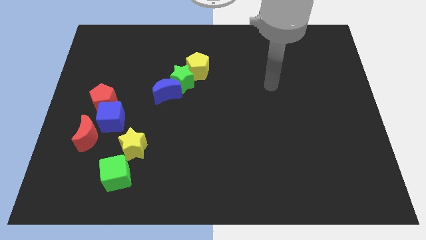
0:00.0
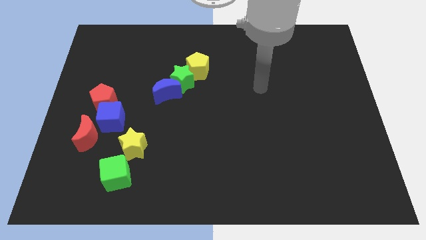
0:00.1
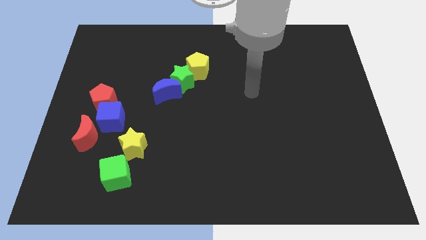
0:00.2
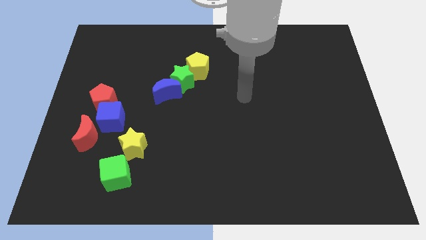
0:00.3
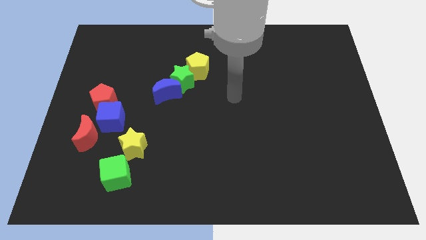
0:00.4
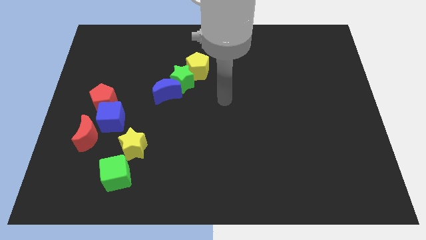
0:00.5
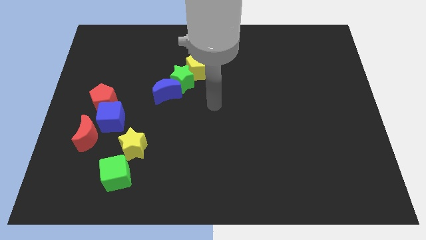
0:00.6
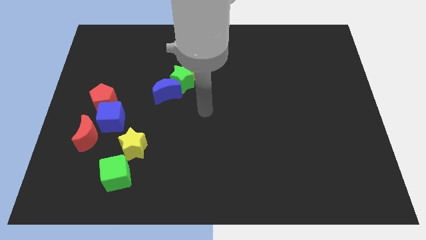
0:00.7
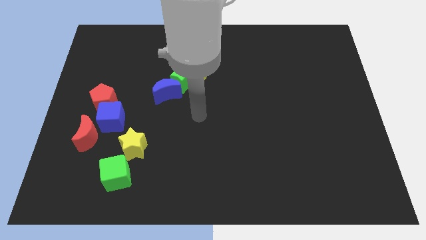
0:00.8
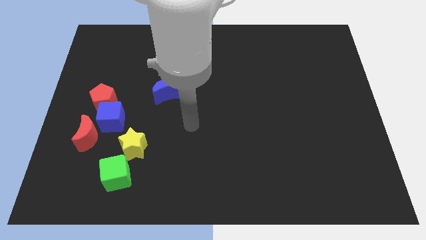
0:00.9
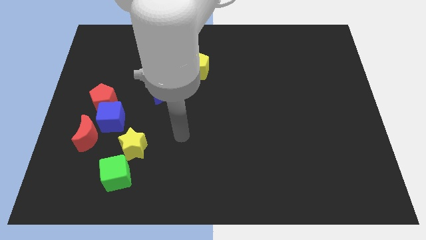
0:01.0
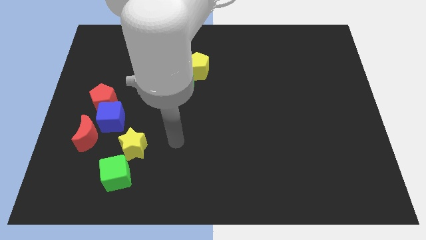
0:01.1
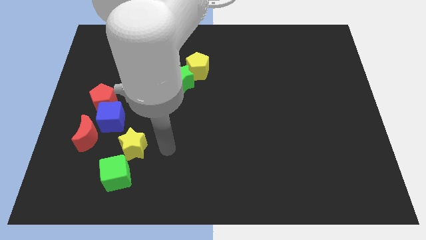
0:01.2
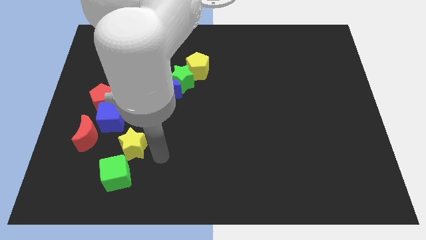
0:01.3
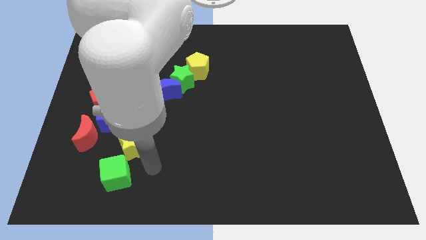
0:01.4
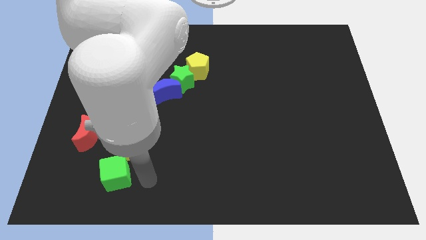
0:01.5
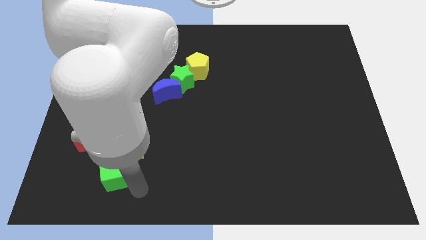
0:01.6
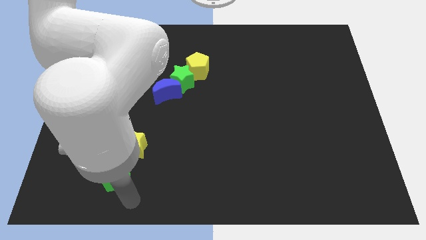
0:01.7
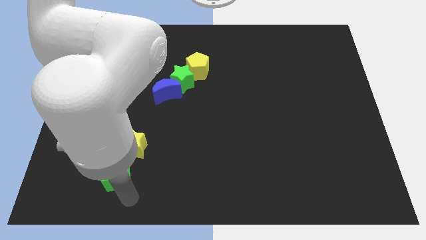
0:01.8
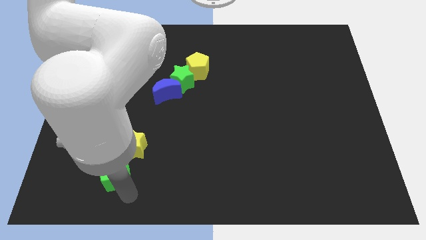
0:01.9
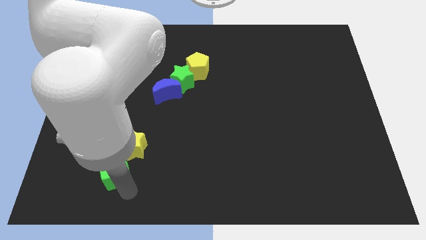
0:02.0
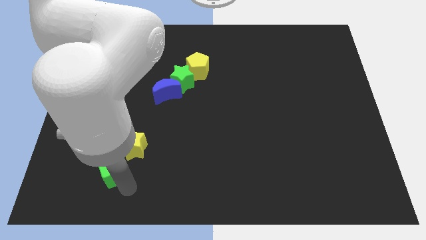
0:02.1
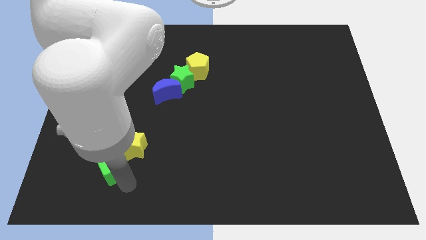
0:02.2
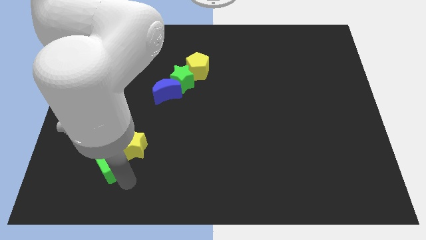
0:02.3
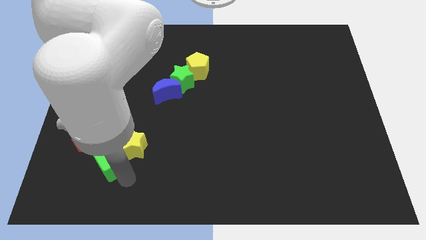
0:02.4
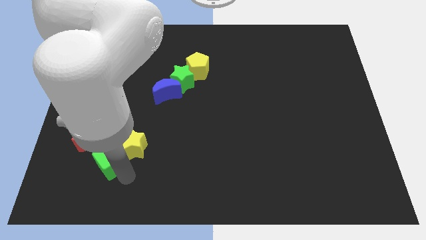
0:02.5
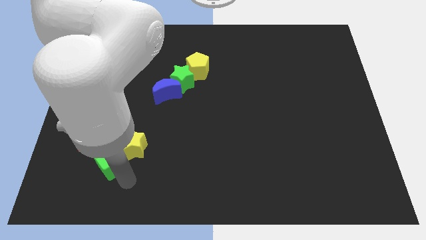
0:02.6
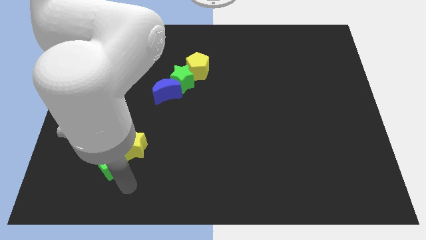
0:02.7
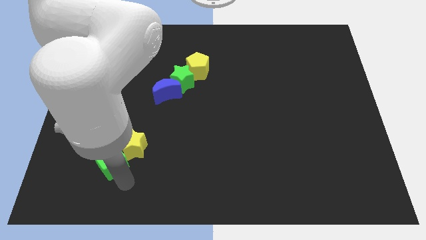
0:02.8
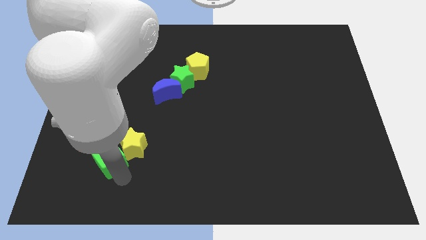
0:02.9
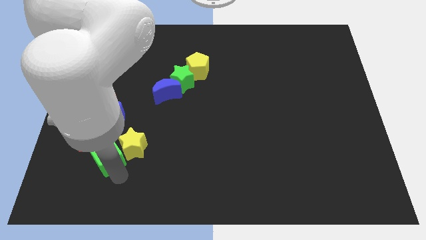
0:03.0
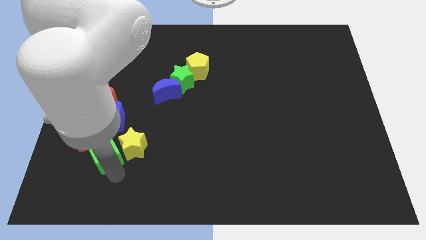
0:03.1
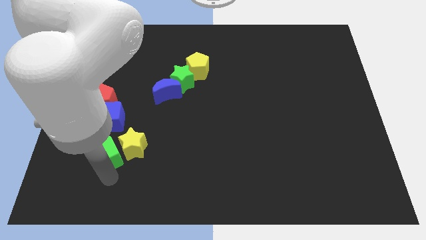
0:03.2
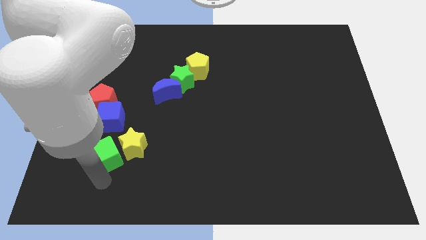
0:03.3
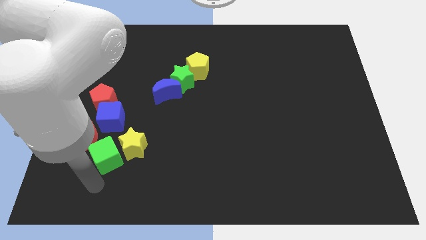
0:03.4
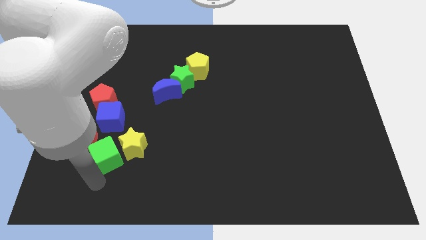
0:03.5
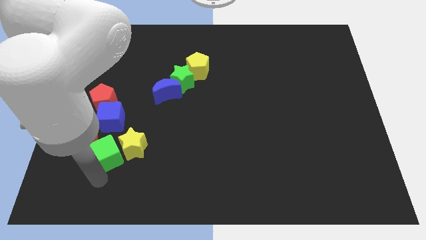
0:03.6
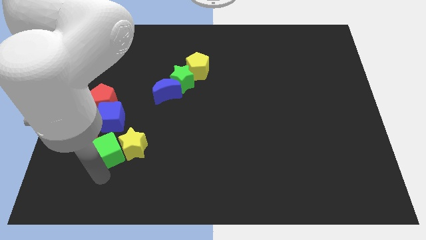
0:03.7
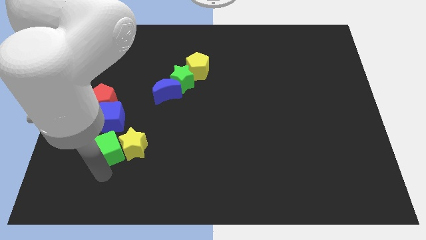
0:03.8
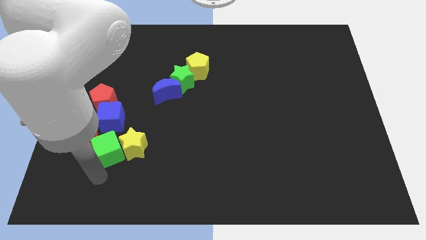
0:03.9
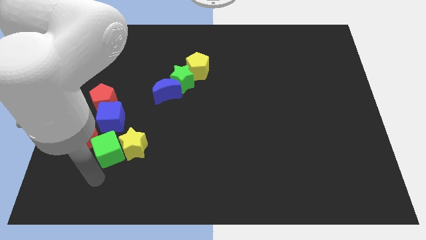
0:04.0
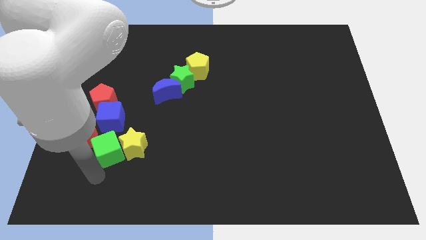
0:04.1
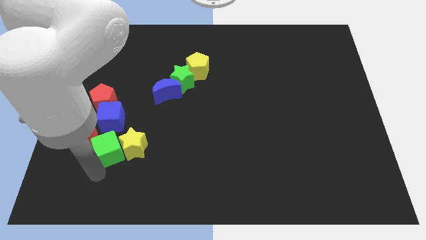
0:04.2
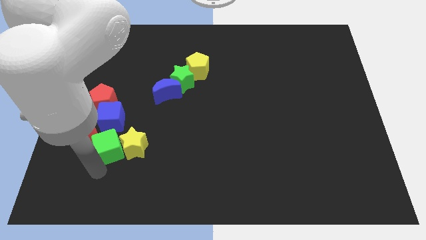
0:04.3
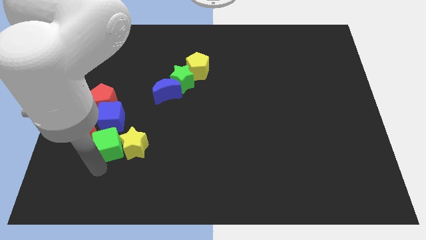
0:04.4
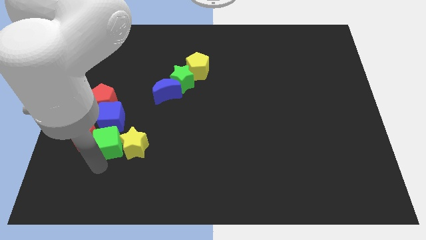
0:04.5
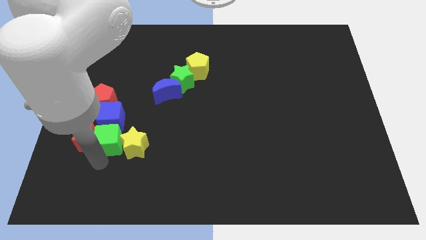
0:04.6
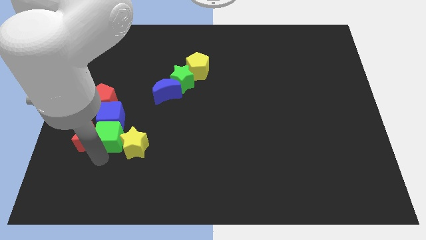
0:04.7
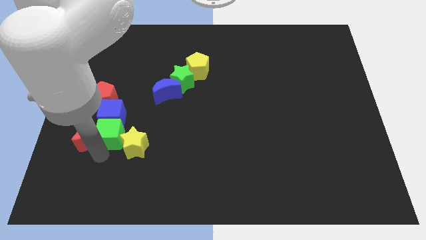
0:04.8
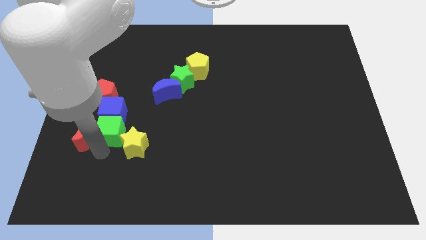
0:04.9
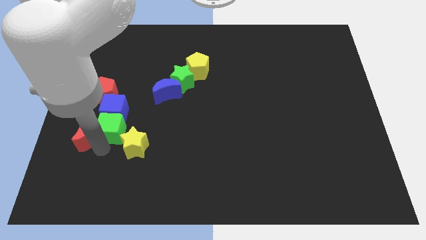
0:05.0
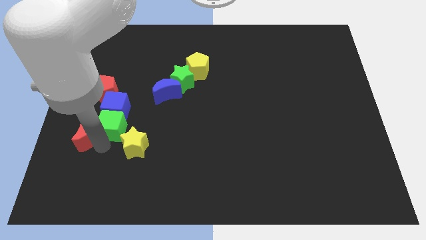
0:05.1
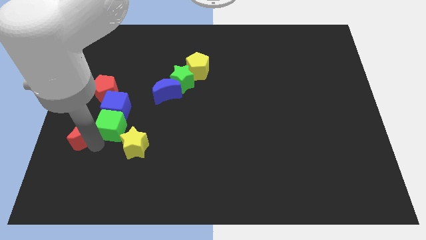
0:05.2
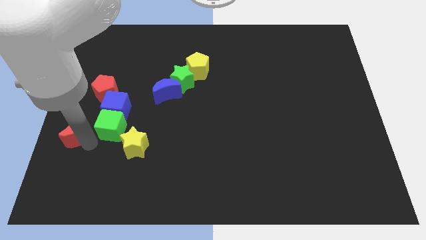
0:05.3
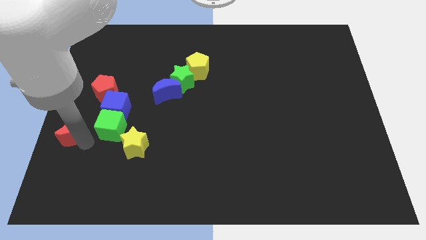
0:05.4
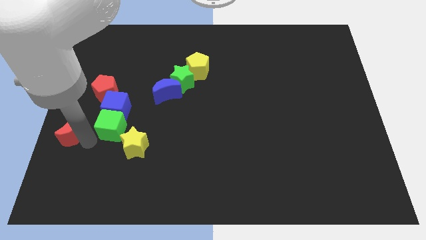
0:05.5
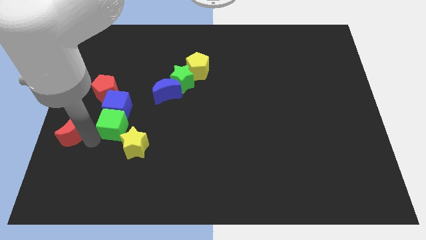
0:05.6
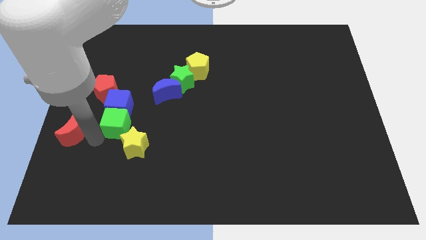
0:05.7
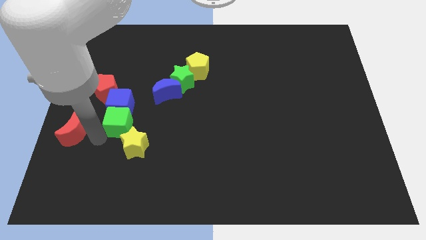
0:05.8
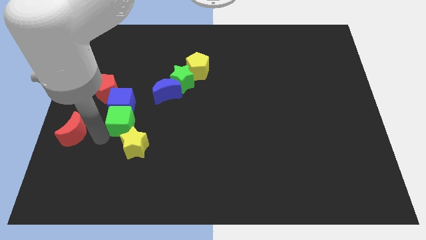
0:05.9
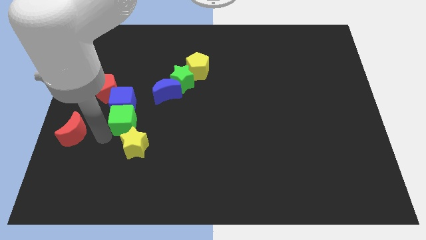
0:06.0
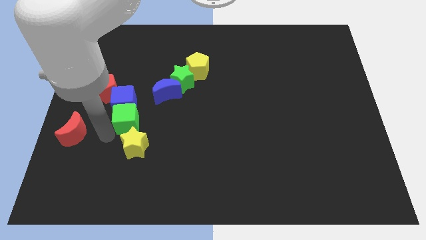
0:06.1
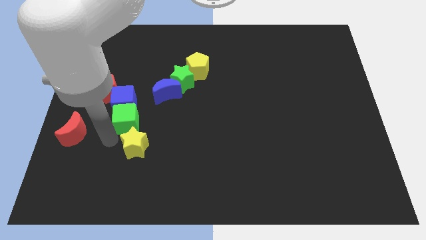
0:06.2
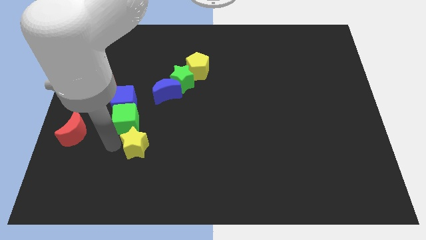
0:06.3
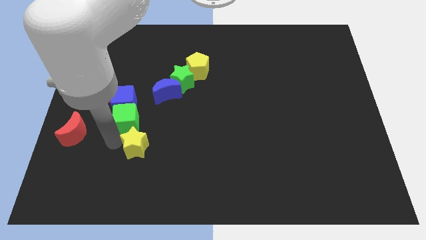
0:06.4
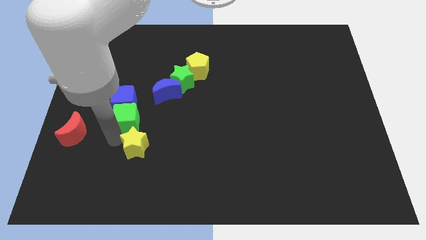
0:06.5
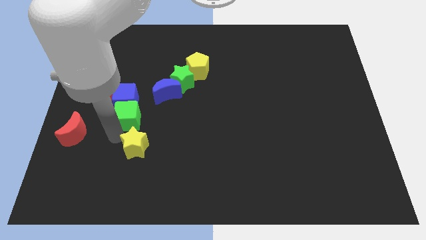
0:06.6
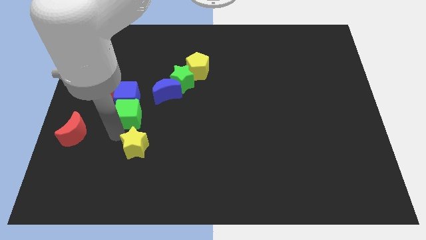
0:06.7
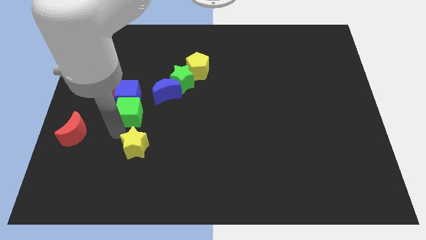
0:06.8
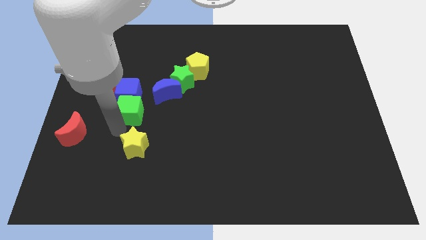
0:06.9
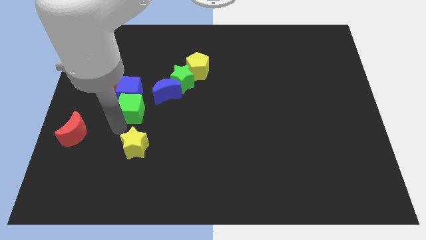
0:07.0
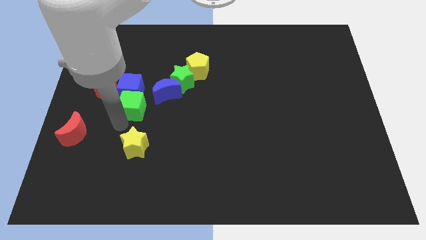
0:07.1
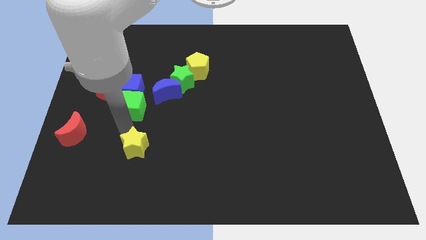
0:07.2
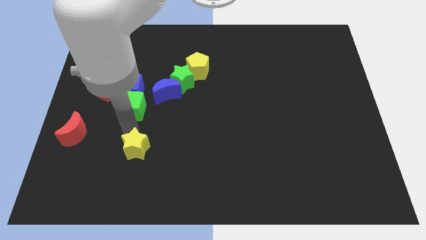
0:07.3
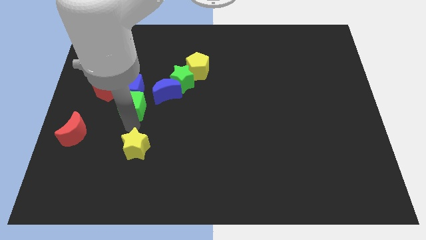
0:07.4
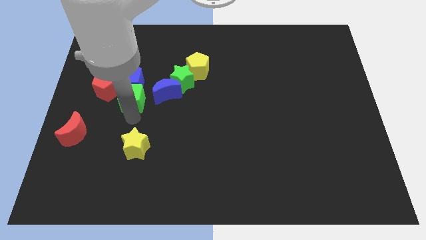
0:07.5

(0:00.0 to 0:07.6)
slide the green cube up

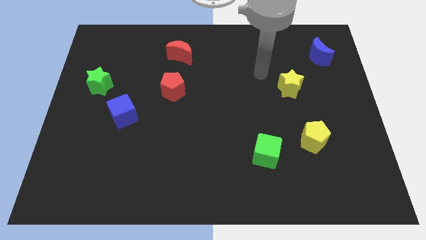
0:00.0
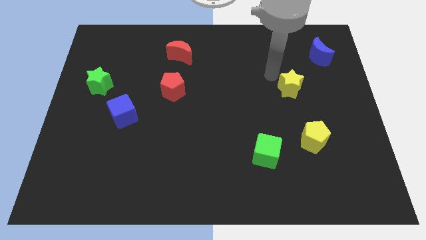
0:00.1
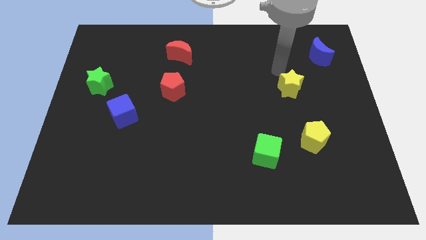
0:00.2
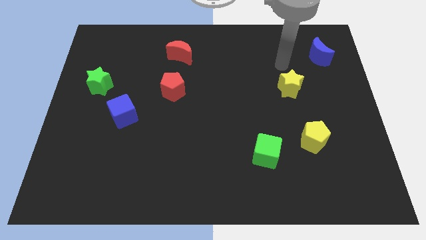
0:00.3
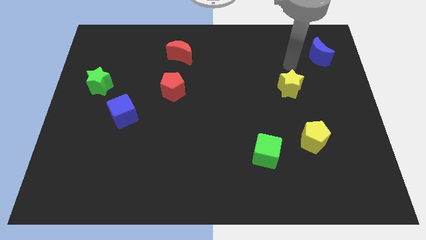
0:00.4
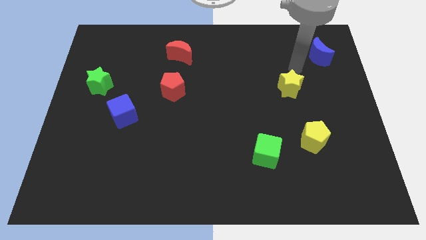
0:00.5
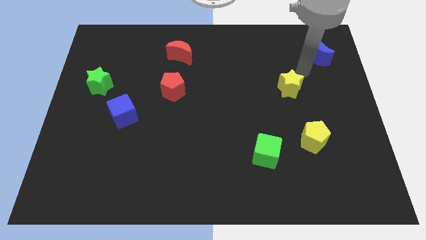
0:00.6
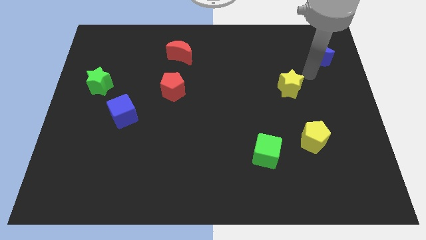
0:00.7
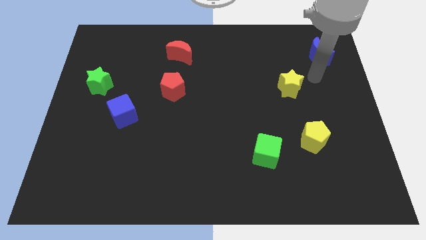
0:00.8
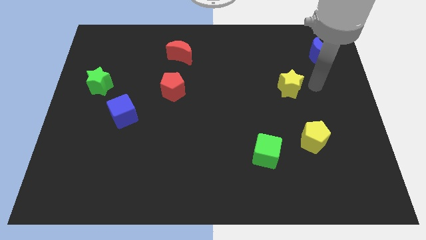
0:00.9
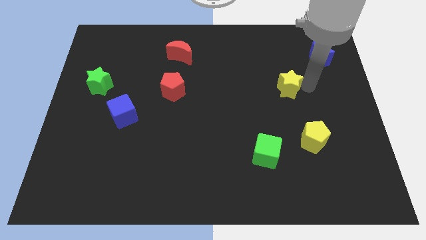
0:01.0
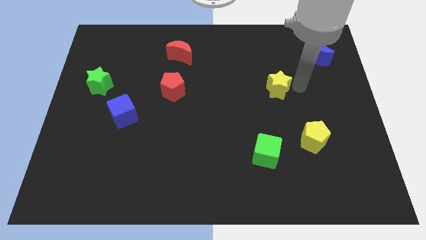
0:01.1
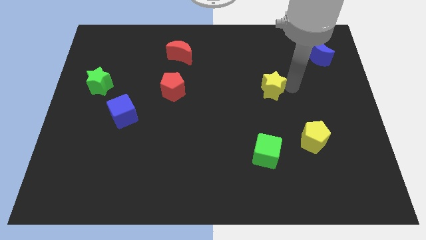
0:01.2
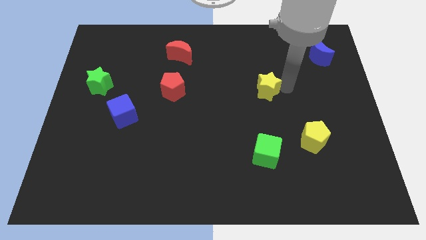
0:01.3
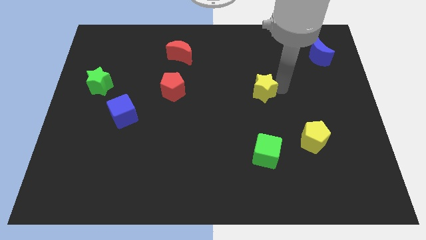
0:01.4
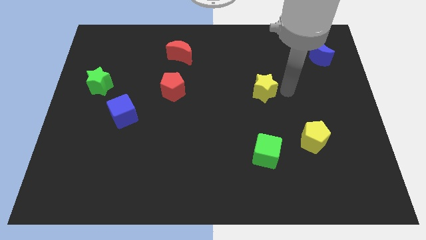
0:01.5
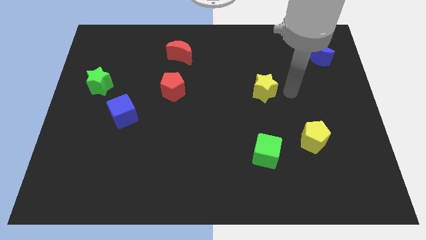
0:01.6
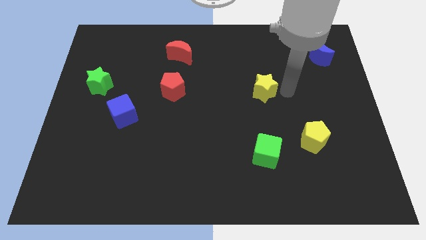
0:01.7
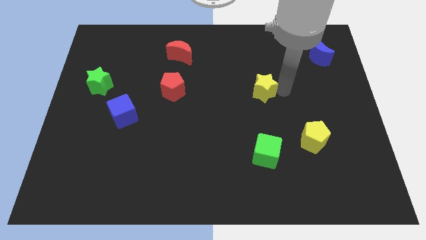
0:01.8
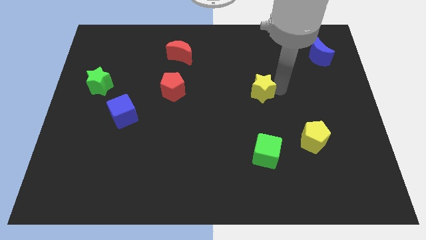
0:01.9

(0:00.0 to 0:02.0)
move the yellow star slightly to the left
